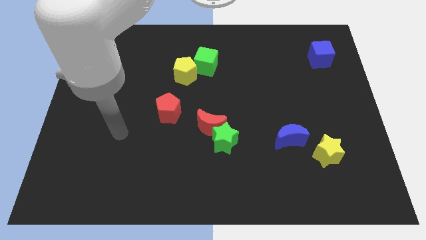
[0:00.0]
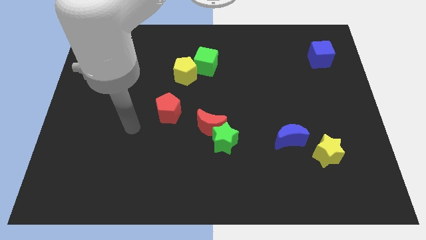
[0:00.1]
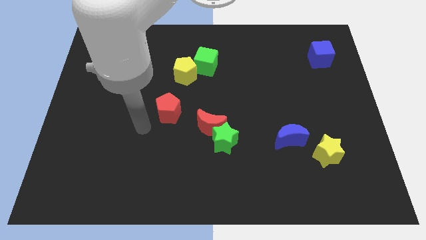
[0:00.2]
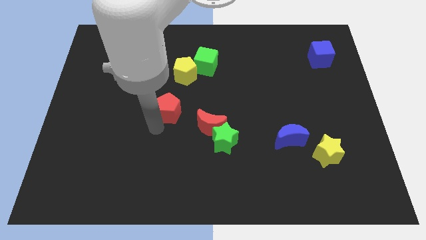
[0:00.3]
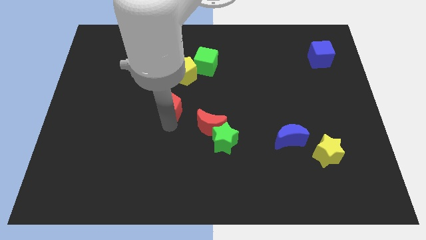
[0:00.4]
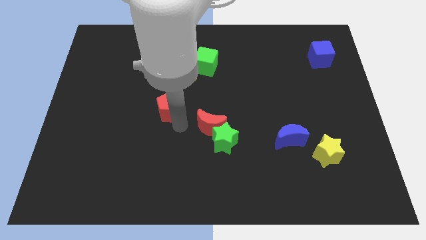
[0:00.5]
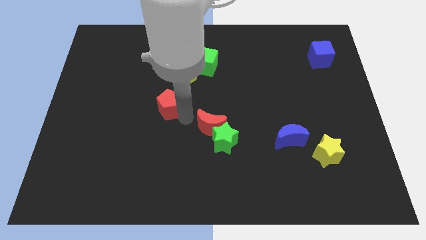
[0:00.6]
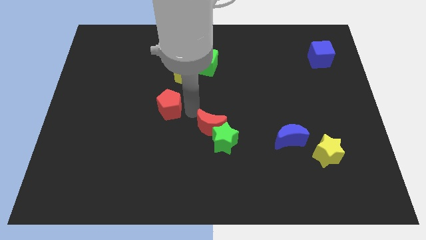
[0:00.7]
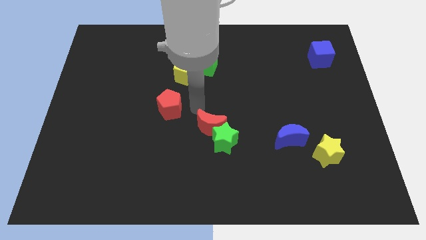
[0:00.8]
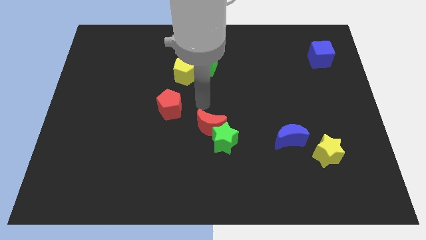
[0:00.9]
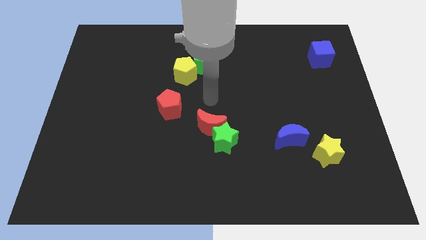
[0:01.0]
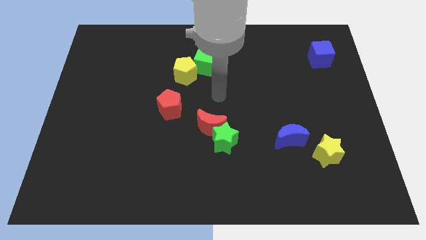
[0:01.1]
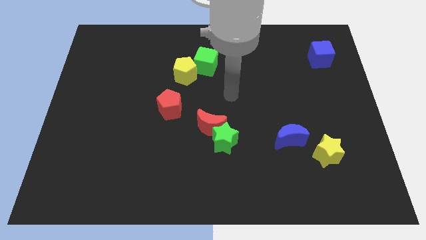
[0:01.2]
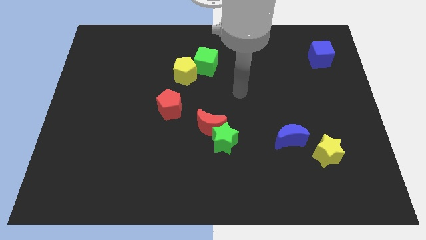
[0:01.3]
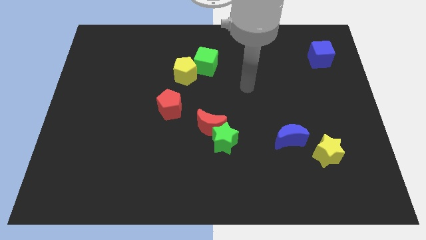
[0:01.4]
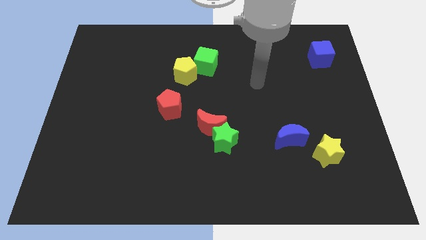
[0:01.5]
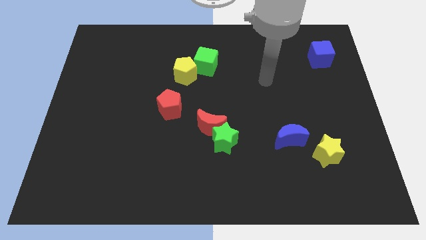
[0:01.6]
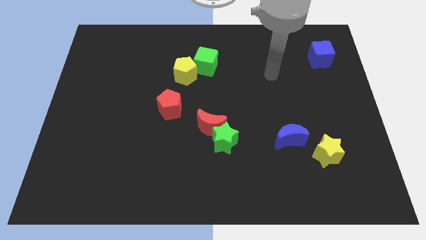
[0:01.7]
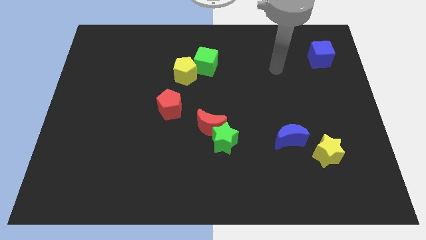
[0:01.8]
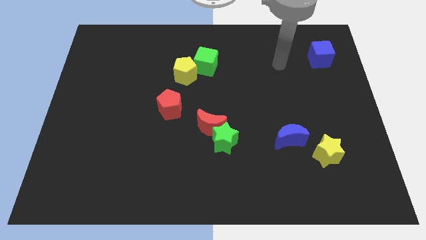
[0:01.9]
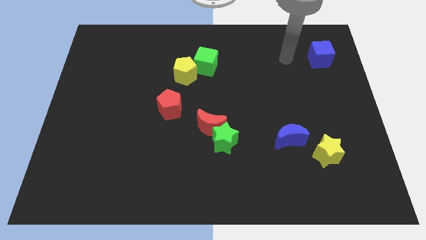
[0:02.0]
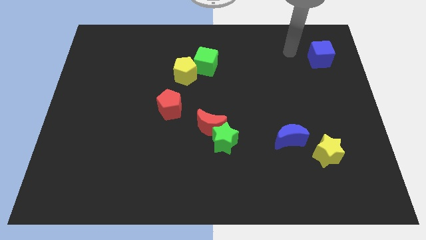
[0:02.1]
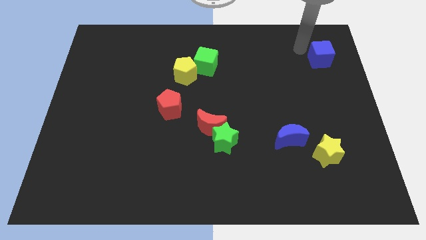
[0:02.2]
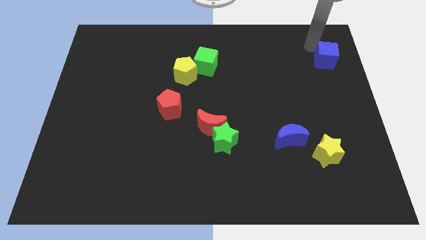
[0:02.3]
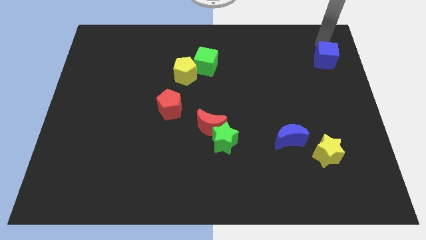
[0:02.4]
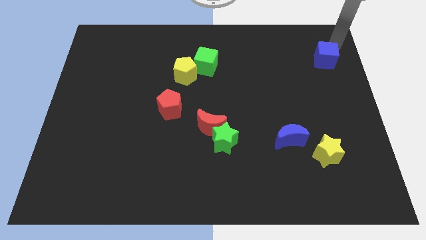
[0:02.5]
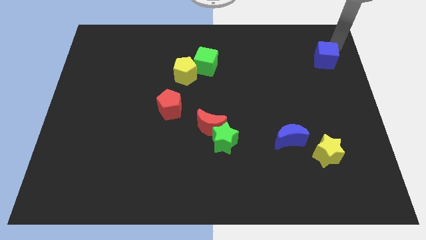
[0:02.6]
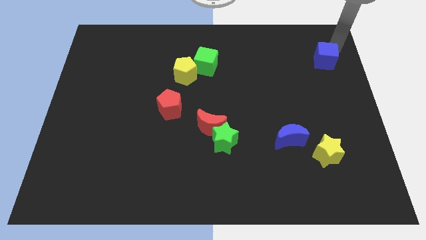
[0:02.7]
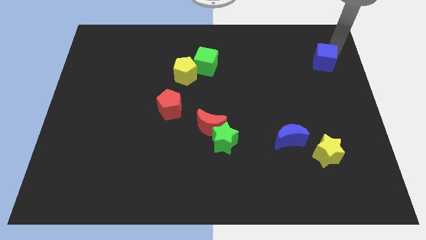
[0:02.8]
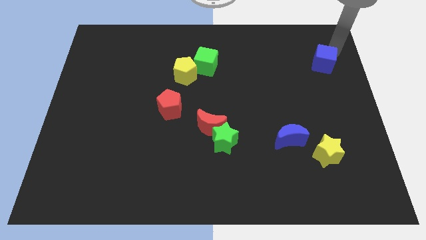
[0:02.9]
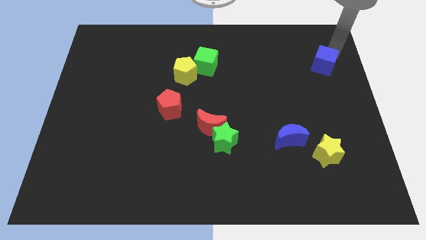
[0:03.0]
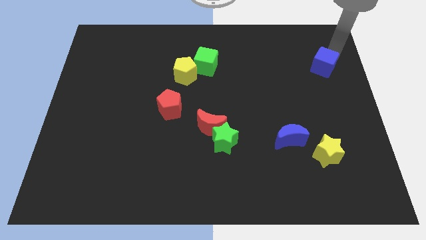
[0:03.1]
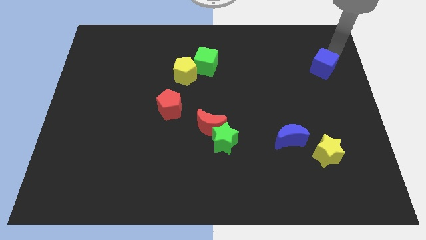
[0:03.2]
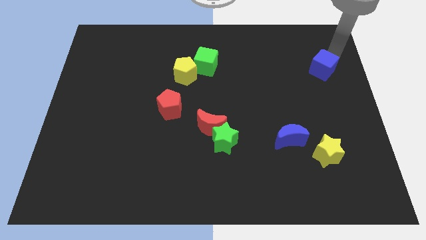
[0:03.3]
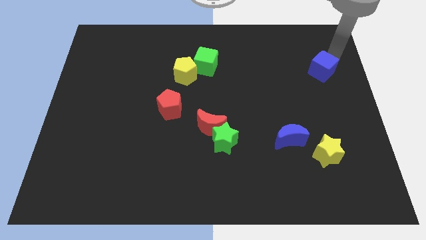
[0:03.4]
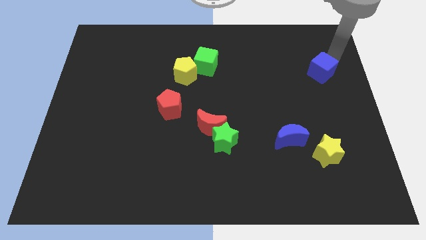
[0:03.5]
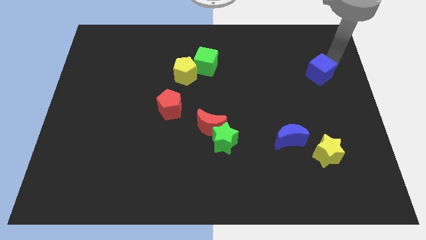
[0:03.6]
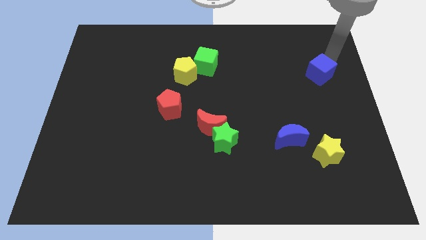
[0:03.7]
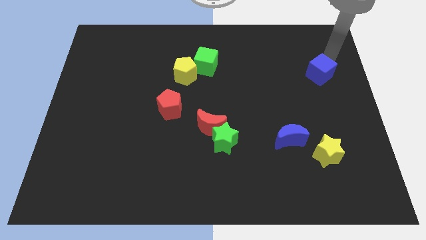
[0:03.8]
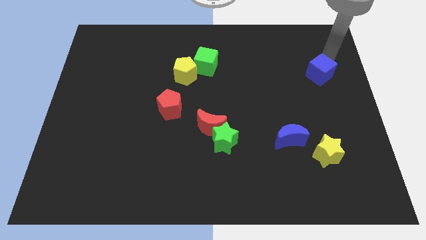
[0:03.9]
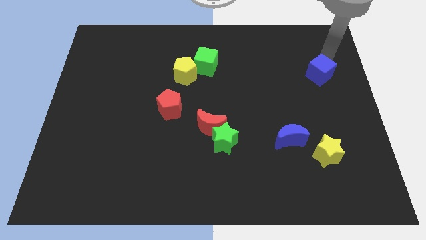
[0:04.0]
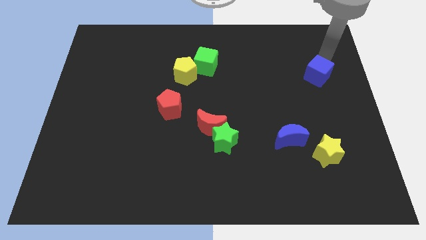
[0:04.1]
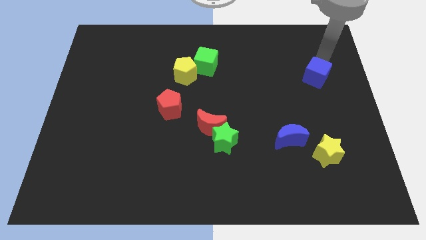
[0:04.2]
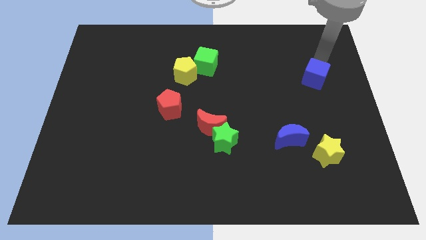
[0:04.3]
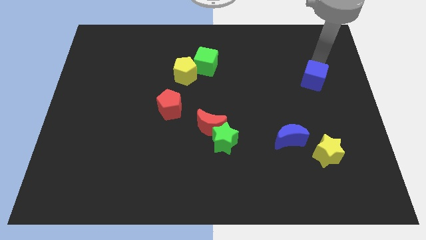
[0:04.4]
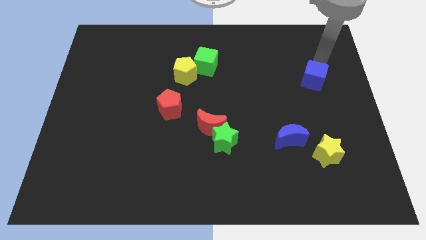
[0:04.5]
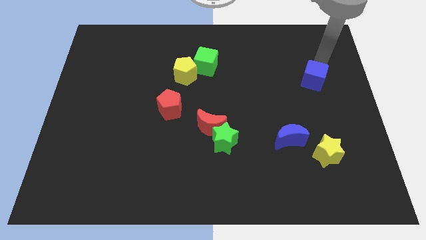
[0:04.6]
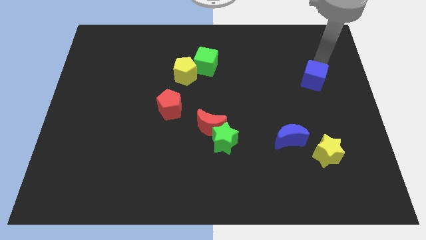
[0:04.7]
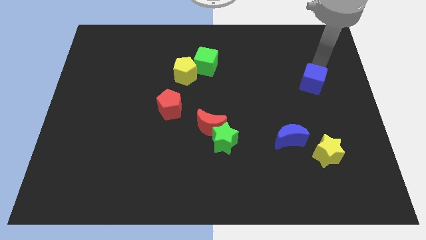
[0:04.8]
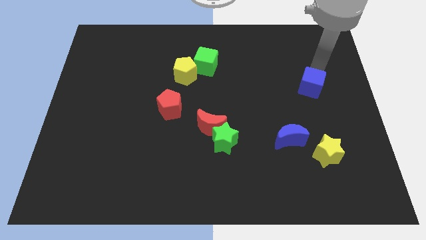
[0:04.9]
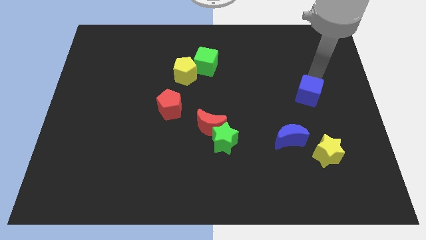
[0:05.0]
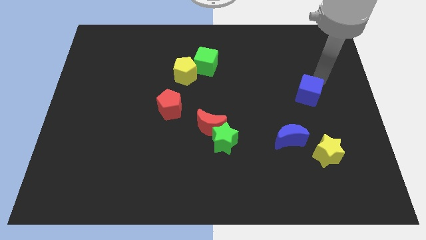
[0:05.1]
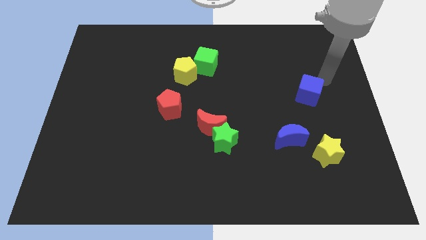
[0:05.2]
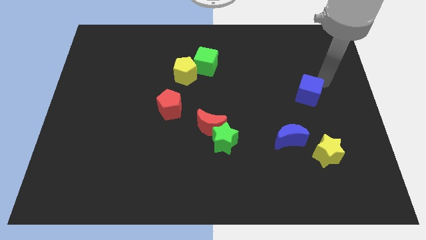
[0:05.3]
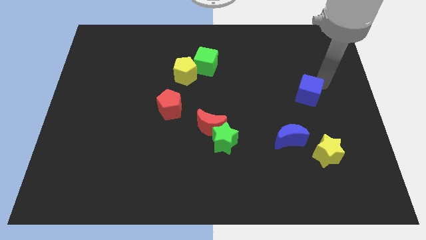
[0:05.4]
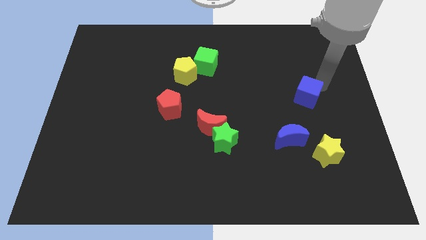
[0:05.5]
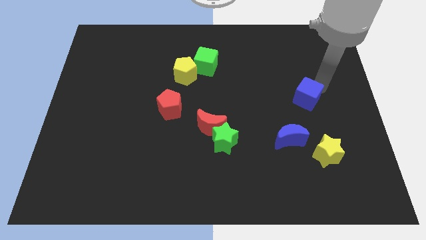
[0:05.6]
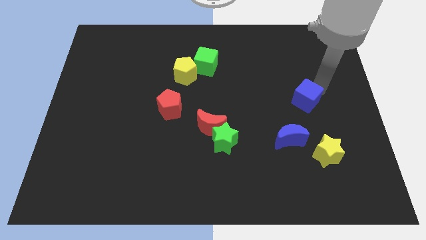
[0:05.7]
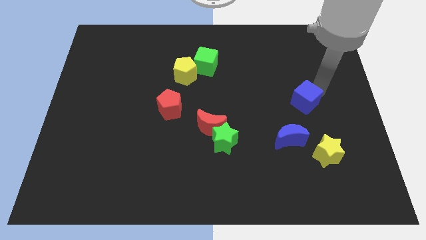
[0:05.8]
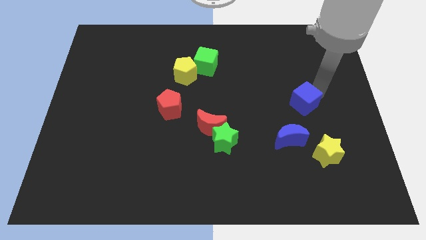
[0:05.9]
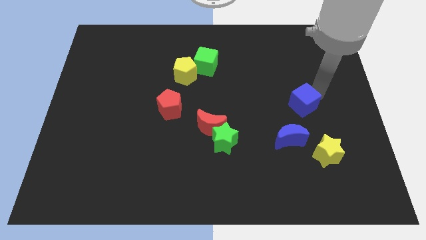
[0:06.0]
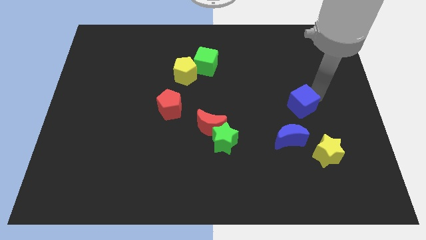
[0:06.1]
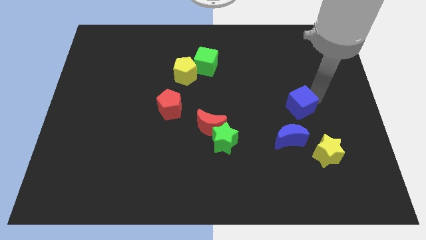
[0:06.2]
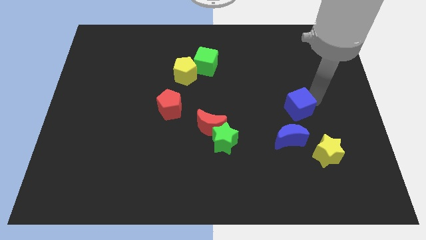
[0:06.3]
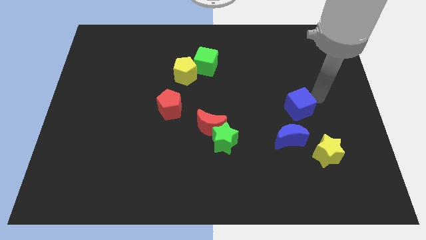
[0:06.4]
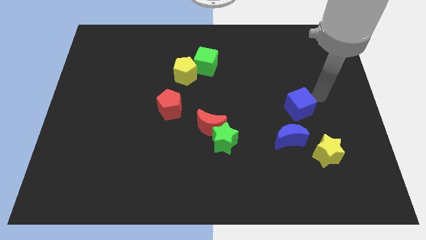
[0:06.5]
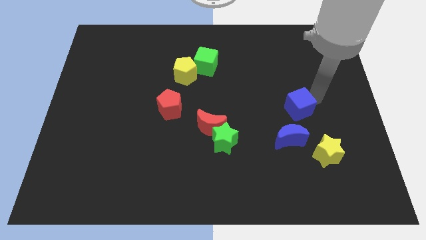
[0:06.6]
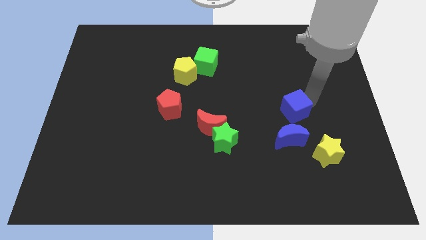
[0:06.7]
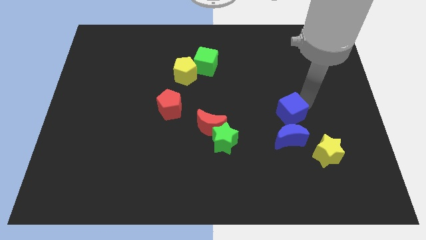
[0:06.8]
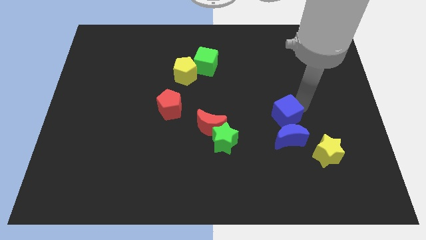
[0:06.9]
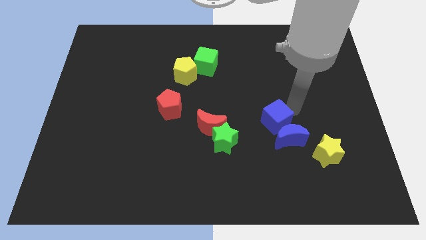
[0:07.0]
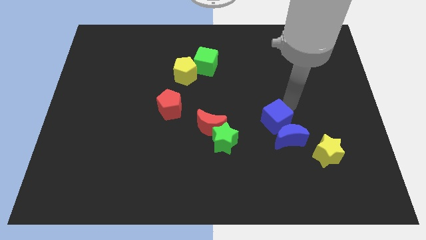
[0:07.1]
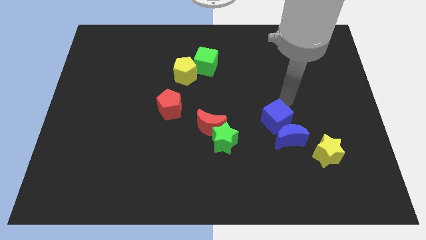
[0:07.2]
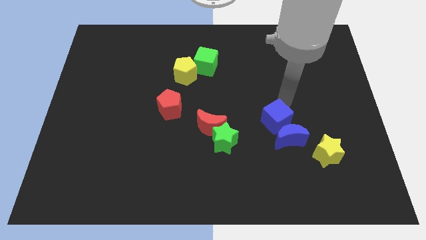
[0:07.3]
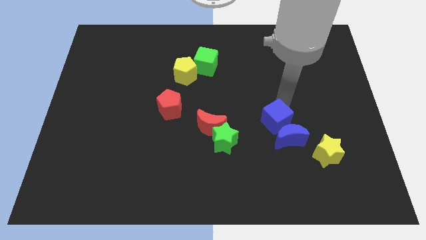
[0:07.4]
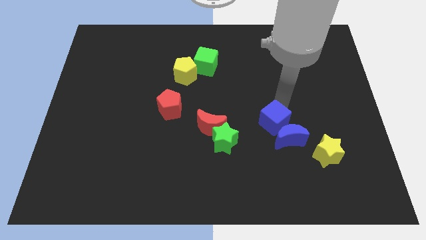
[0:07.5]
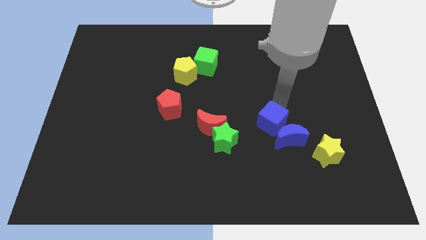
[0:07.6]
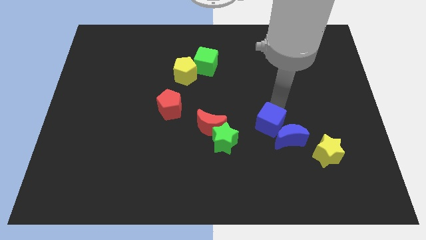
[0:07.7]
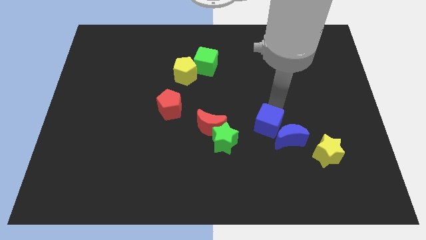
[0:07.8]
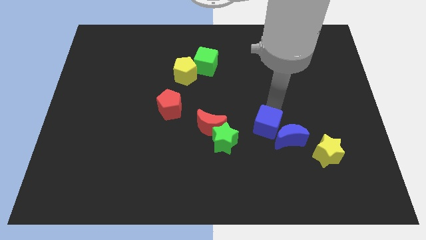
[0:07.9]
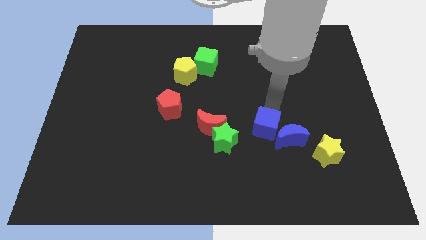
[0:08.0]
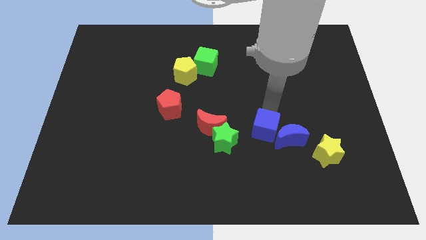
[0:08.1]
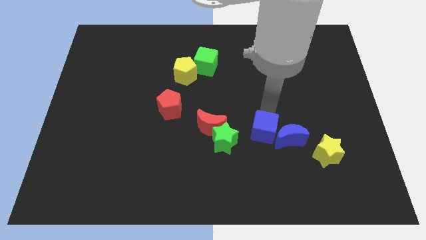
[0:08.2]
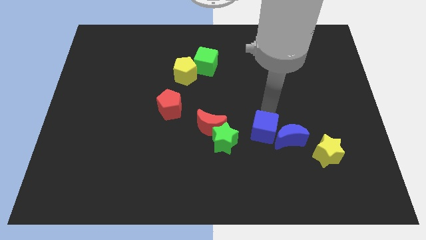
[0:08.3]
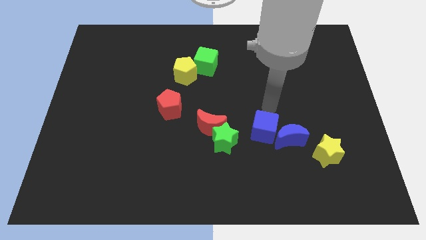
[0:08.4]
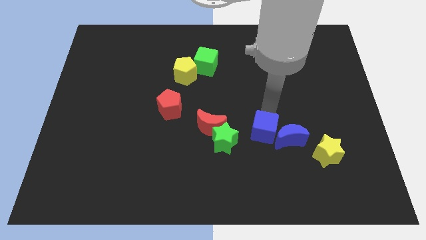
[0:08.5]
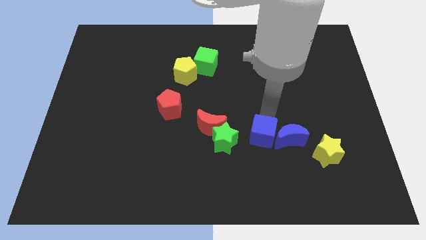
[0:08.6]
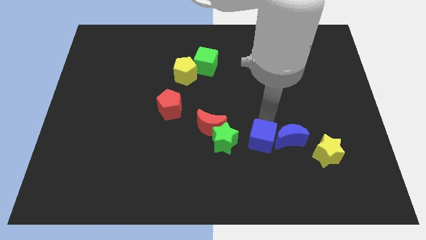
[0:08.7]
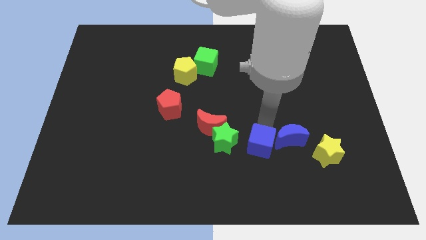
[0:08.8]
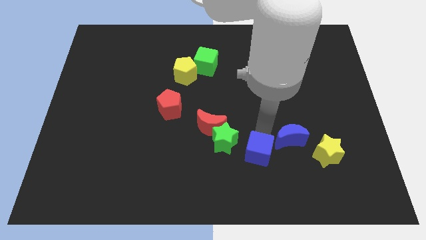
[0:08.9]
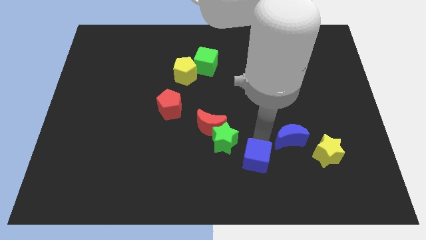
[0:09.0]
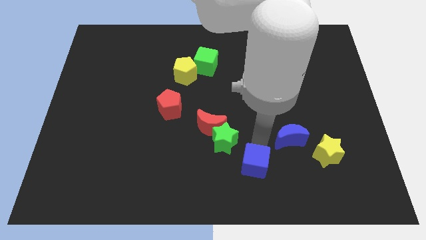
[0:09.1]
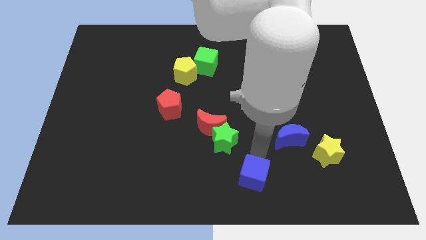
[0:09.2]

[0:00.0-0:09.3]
push the blue cube to the bottom side
